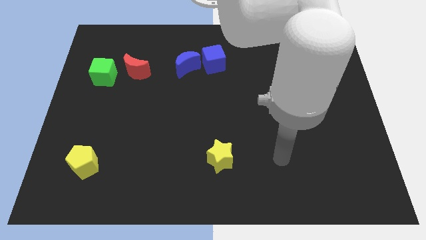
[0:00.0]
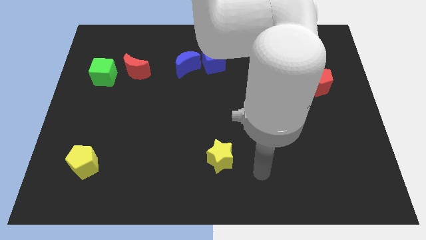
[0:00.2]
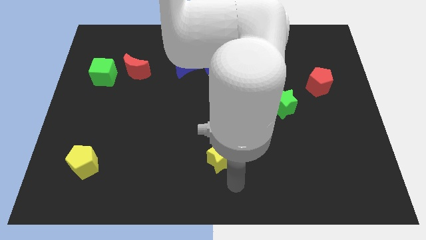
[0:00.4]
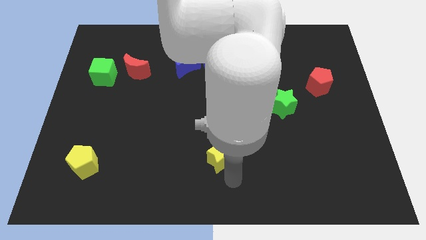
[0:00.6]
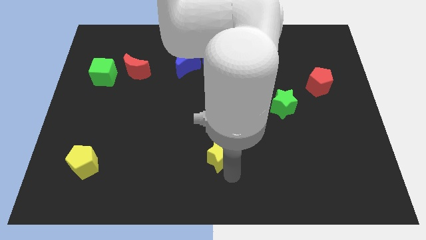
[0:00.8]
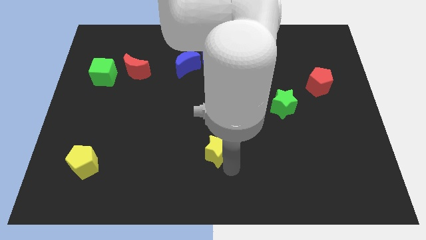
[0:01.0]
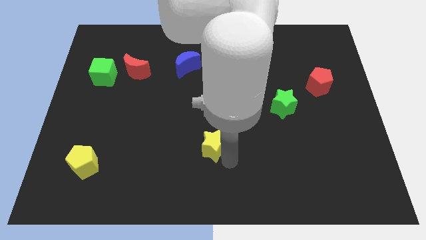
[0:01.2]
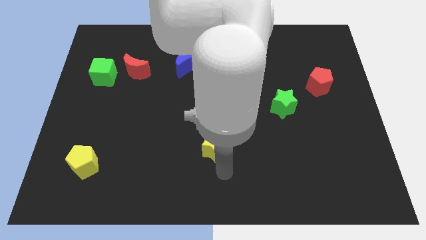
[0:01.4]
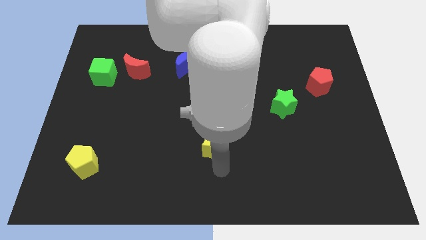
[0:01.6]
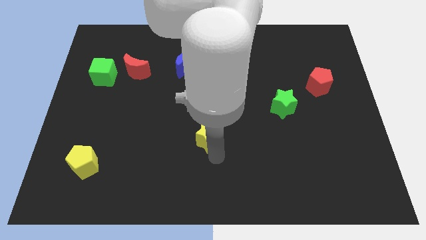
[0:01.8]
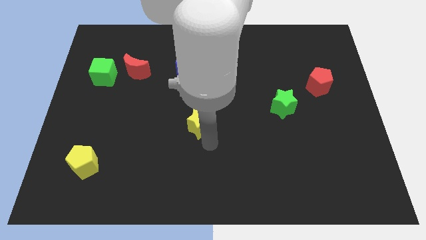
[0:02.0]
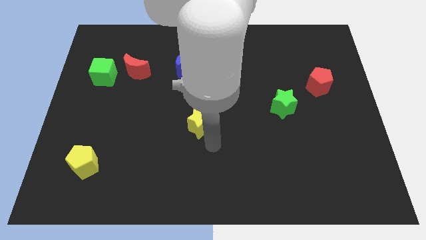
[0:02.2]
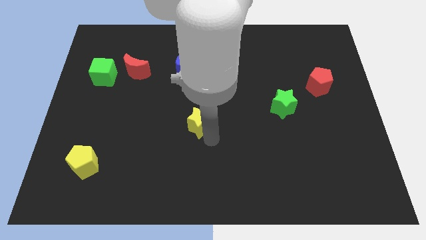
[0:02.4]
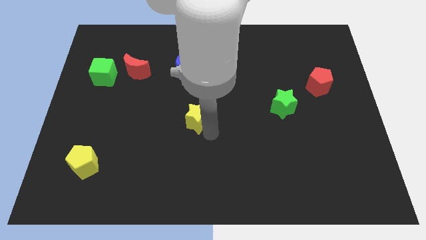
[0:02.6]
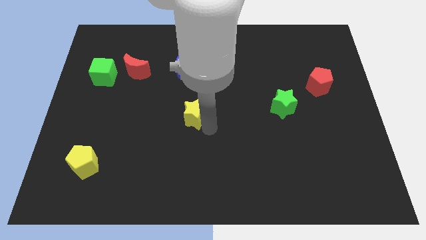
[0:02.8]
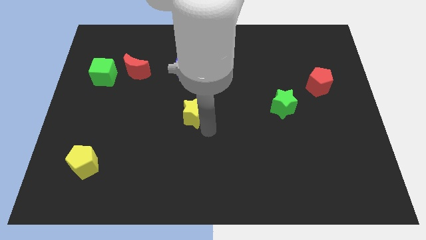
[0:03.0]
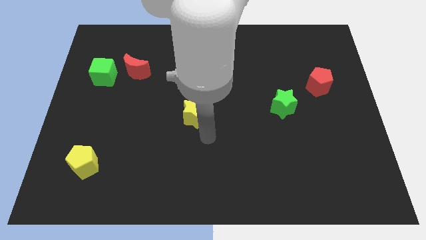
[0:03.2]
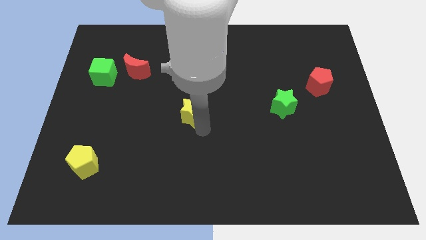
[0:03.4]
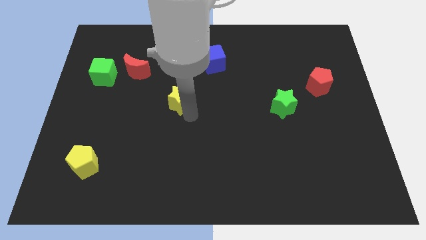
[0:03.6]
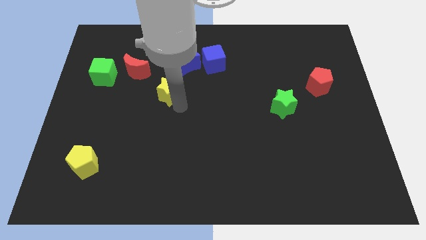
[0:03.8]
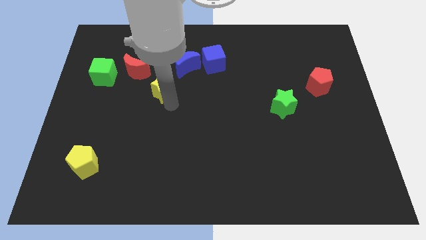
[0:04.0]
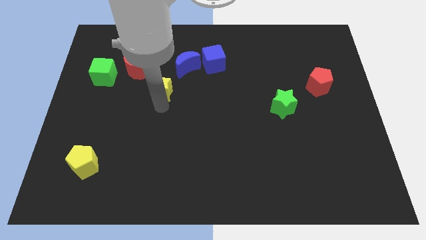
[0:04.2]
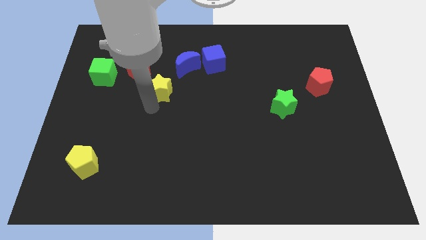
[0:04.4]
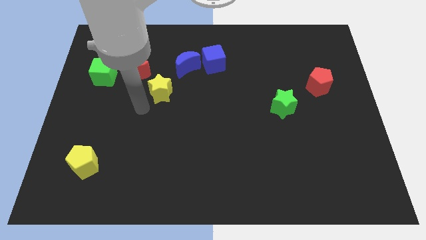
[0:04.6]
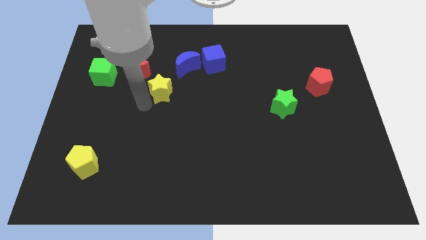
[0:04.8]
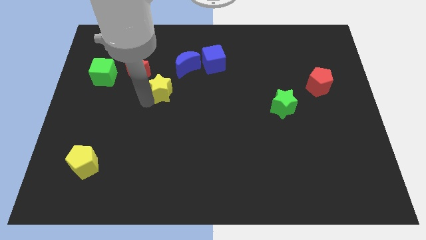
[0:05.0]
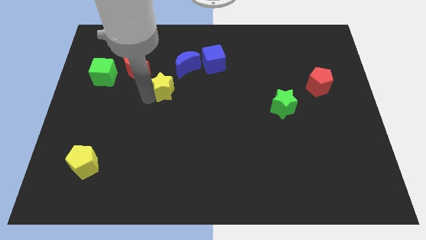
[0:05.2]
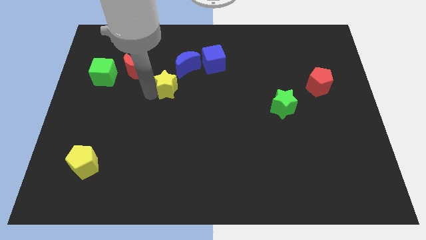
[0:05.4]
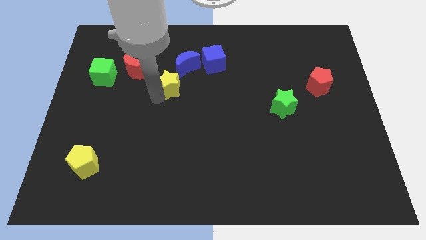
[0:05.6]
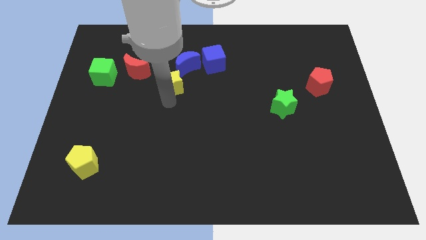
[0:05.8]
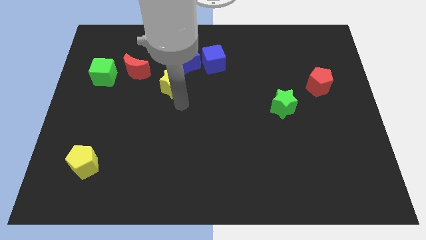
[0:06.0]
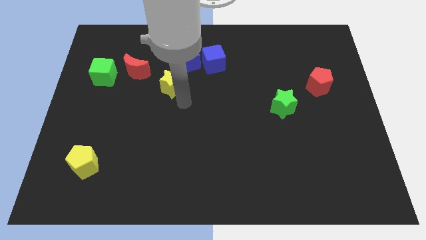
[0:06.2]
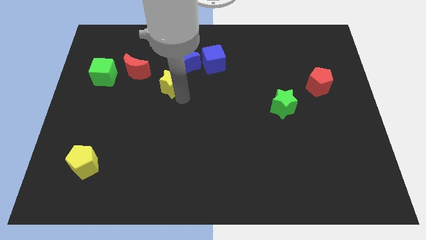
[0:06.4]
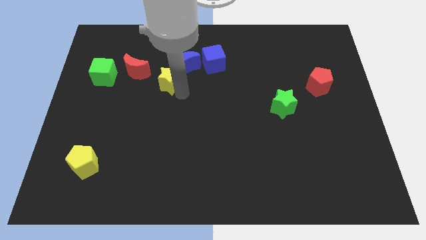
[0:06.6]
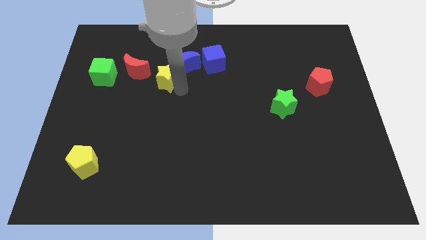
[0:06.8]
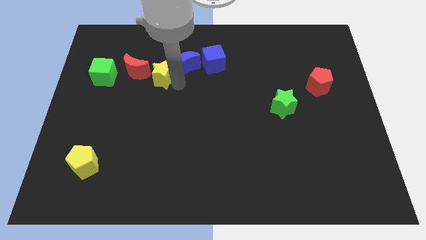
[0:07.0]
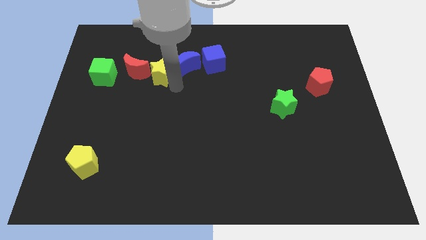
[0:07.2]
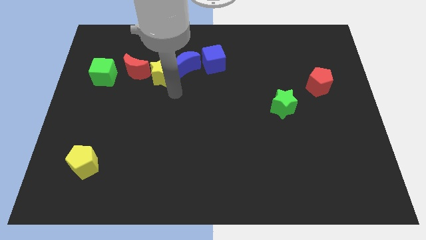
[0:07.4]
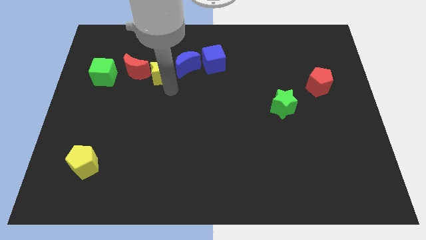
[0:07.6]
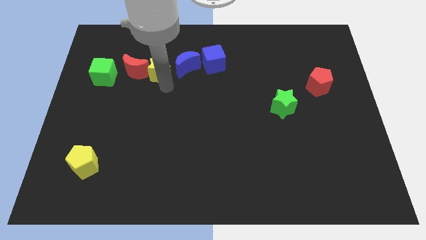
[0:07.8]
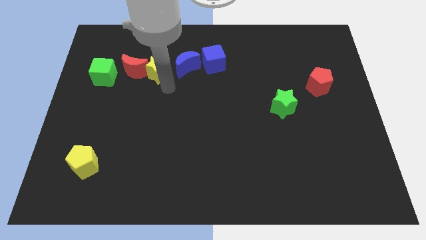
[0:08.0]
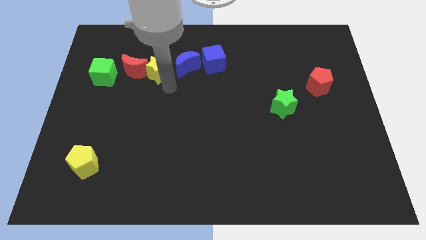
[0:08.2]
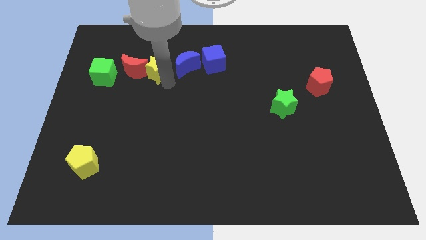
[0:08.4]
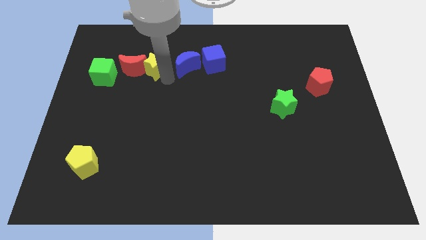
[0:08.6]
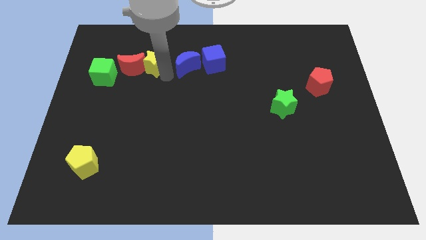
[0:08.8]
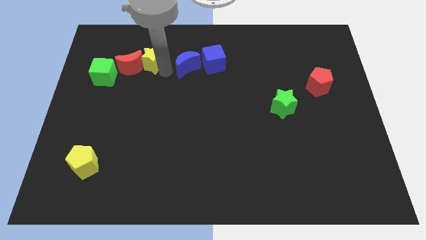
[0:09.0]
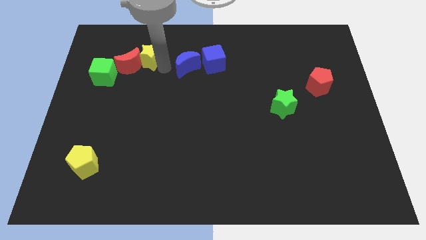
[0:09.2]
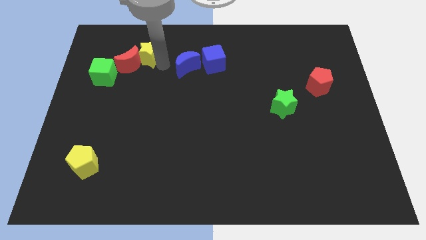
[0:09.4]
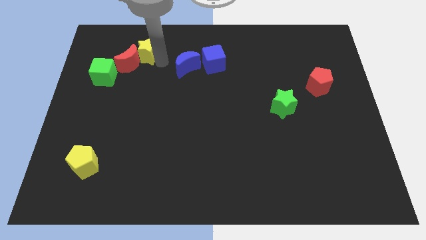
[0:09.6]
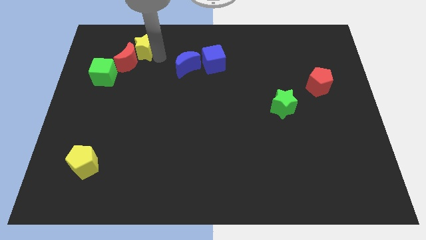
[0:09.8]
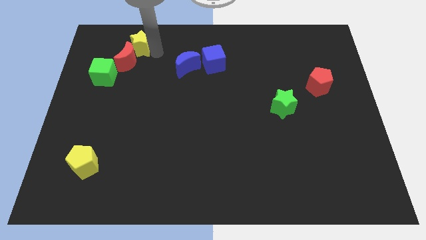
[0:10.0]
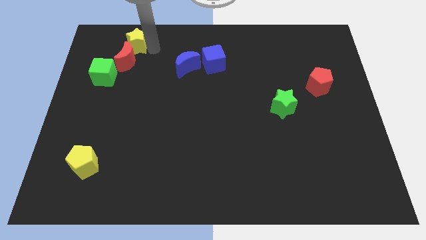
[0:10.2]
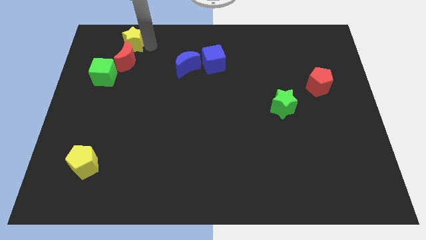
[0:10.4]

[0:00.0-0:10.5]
move the yellow star to the top left side of the red moon
